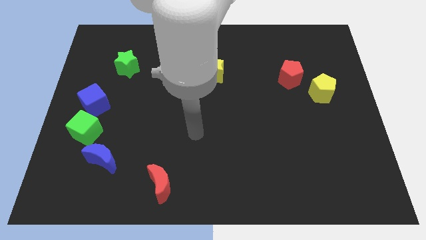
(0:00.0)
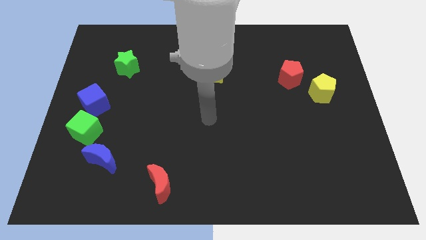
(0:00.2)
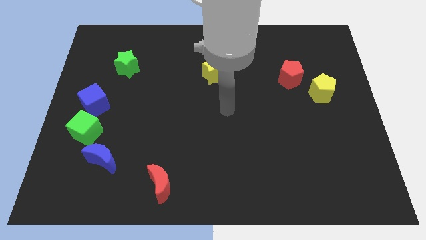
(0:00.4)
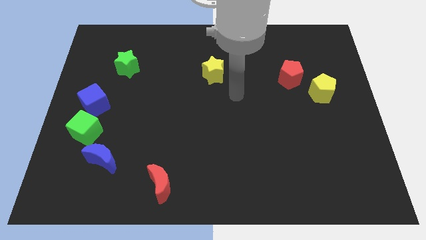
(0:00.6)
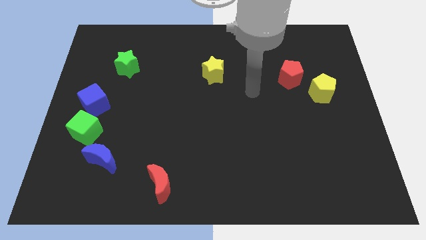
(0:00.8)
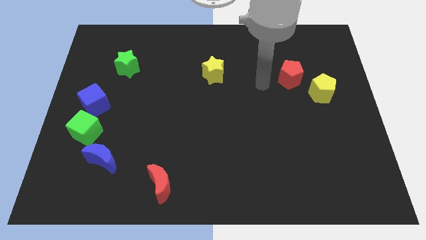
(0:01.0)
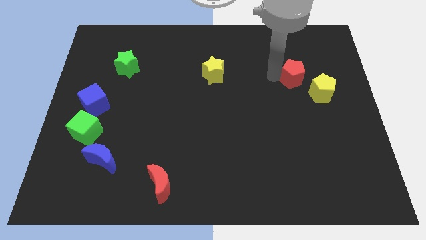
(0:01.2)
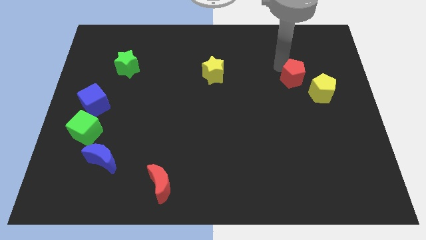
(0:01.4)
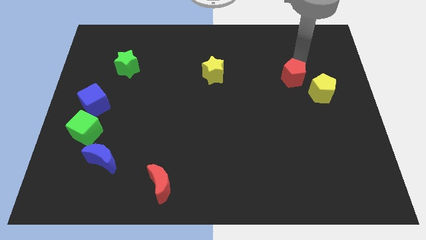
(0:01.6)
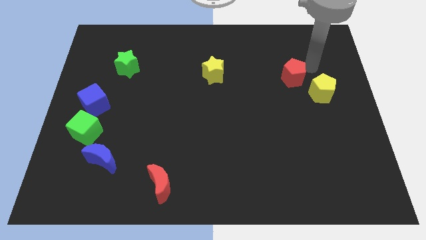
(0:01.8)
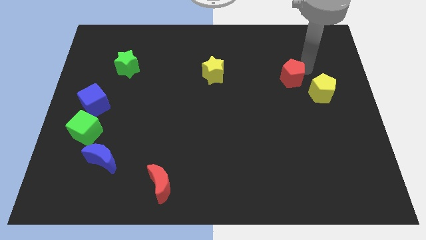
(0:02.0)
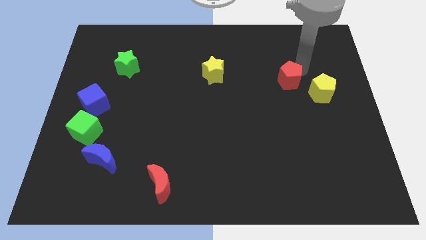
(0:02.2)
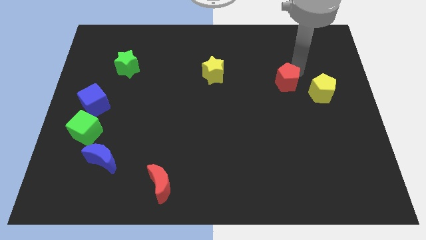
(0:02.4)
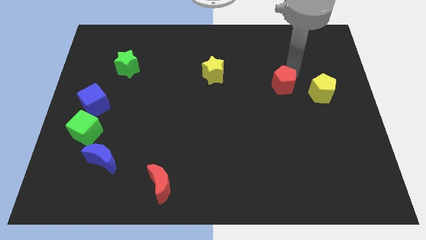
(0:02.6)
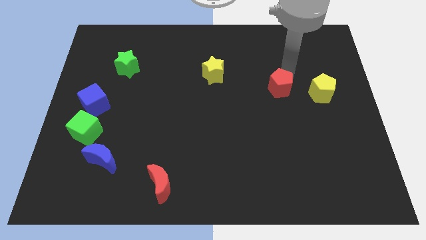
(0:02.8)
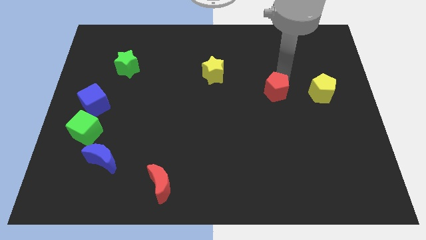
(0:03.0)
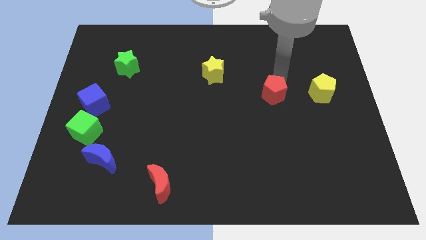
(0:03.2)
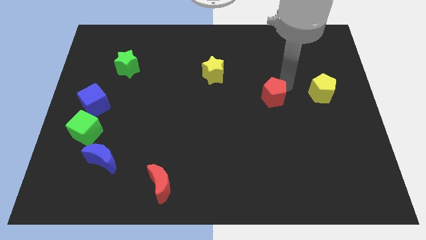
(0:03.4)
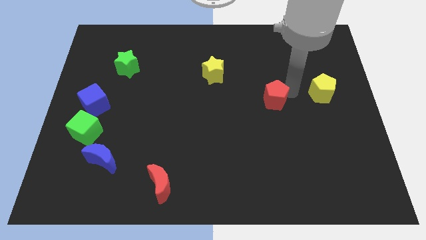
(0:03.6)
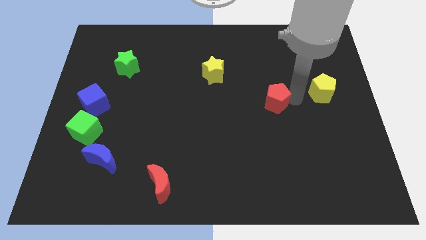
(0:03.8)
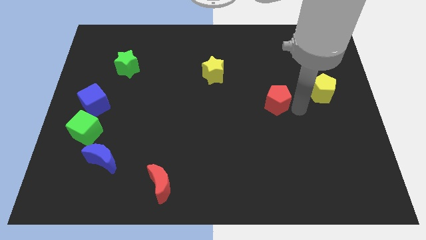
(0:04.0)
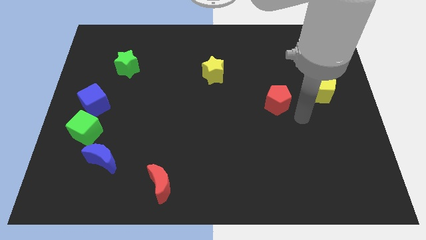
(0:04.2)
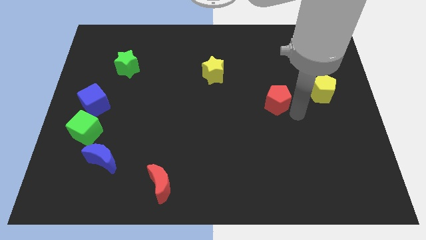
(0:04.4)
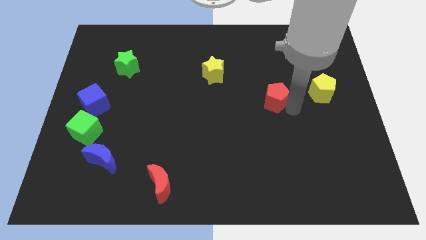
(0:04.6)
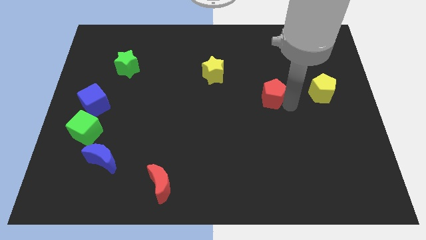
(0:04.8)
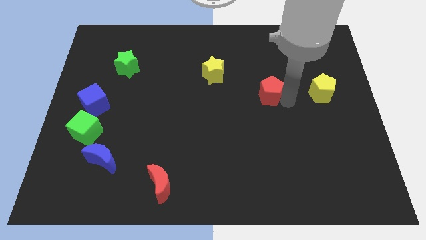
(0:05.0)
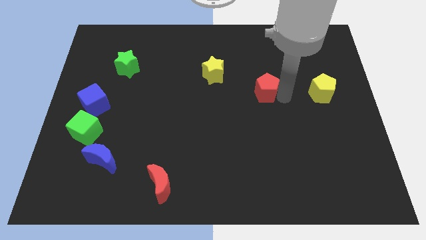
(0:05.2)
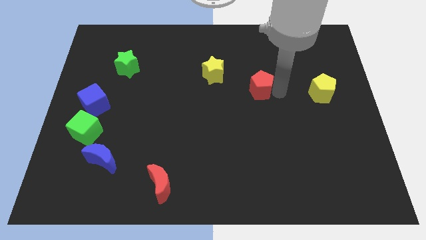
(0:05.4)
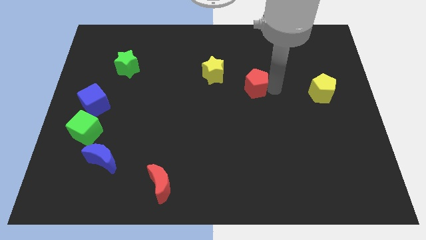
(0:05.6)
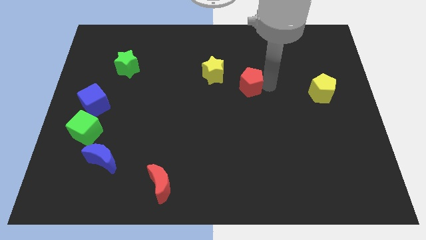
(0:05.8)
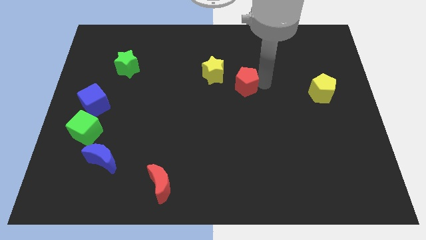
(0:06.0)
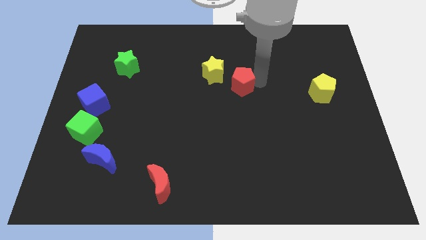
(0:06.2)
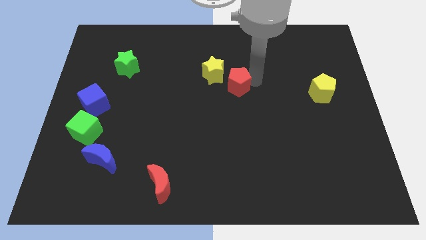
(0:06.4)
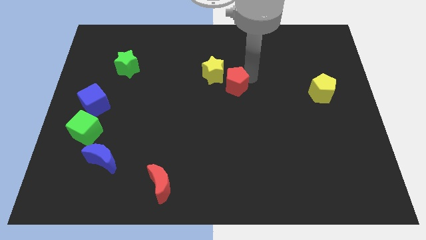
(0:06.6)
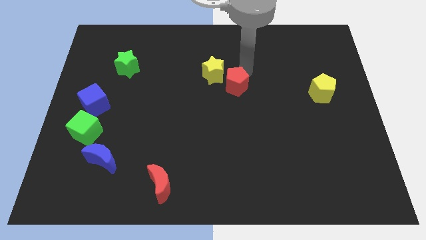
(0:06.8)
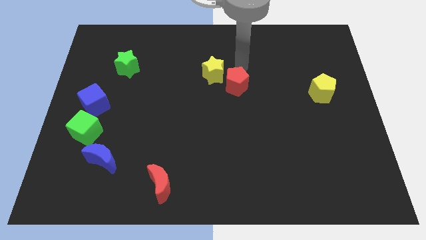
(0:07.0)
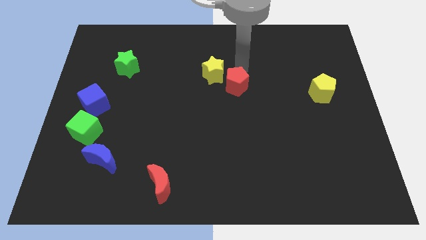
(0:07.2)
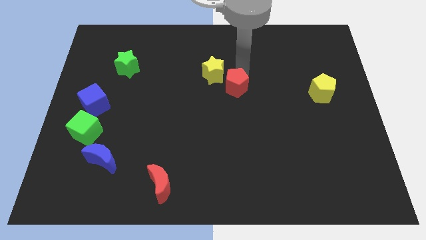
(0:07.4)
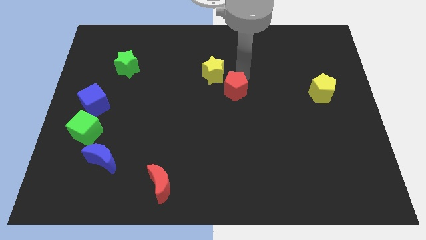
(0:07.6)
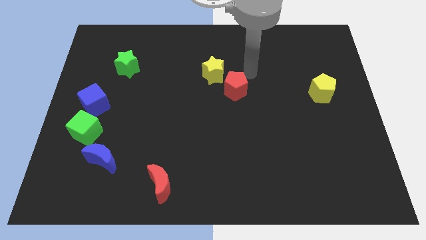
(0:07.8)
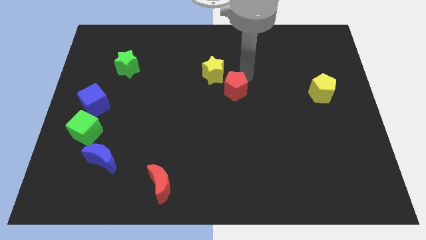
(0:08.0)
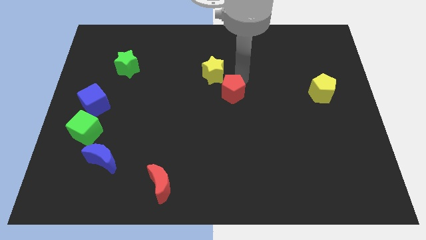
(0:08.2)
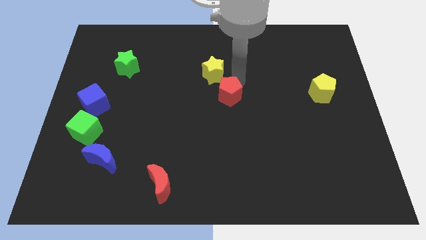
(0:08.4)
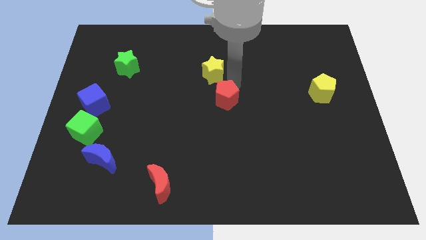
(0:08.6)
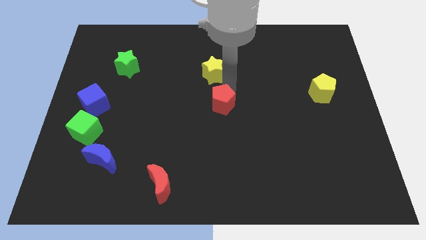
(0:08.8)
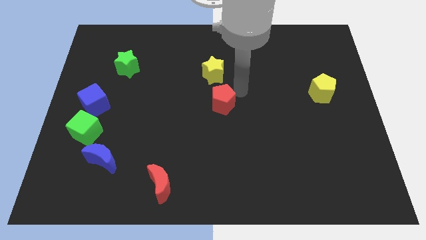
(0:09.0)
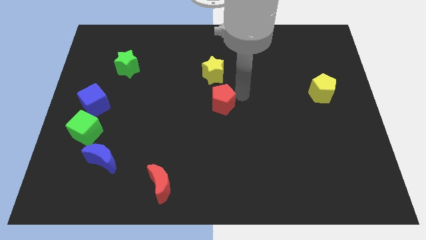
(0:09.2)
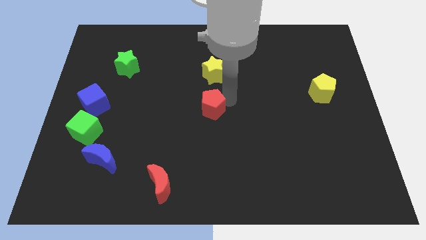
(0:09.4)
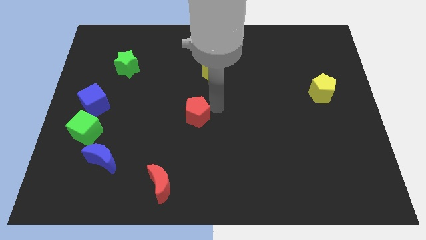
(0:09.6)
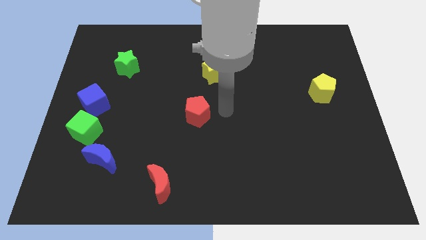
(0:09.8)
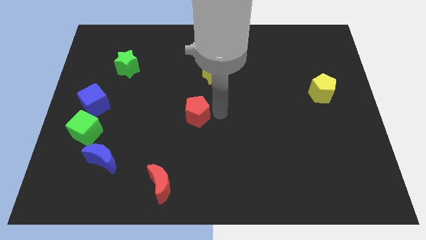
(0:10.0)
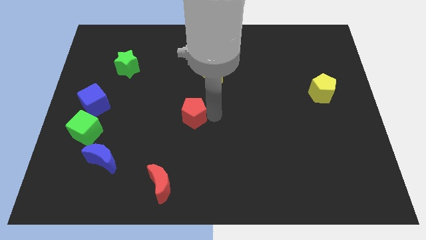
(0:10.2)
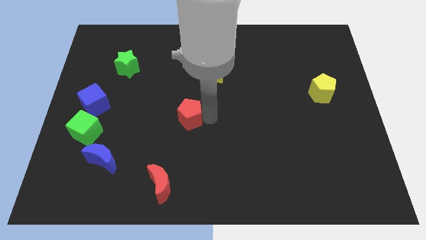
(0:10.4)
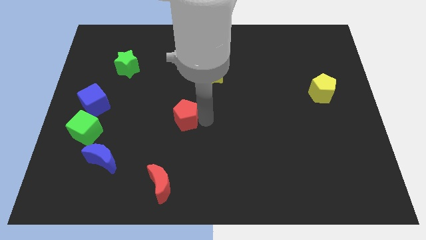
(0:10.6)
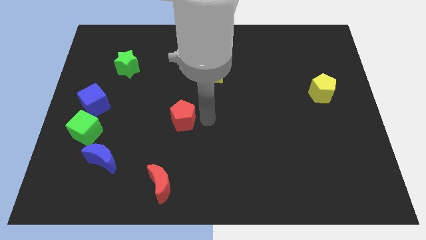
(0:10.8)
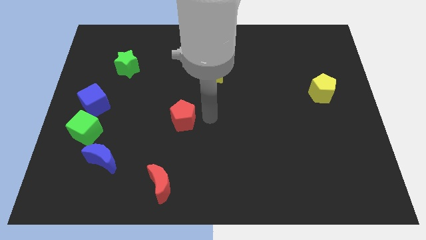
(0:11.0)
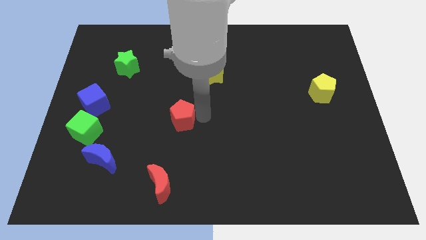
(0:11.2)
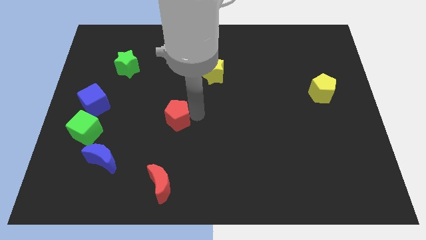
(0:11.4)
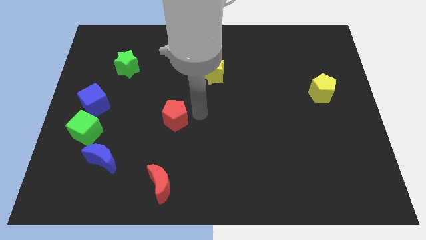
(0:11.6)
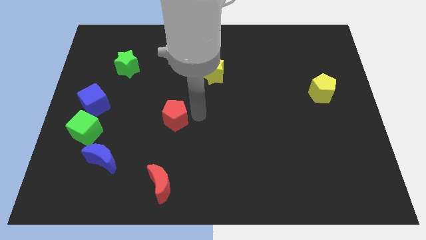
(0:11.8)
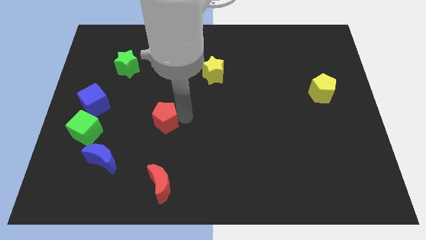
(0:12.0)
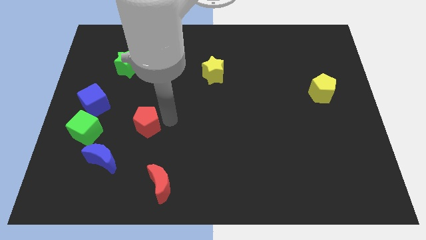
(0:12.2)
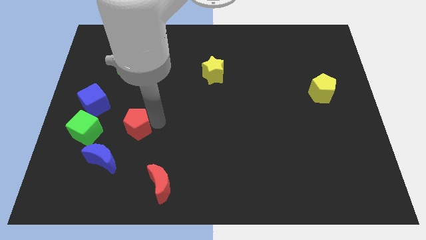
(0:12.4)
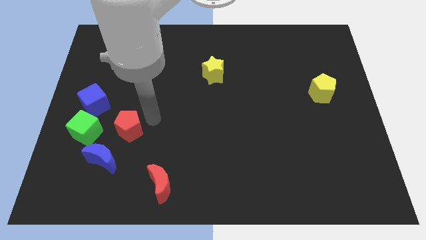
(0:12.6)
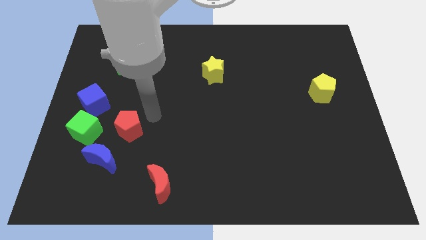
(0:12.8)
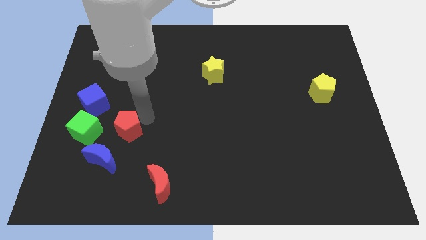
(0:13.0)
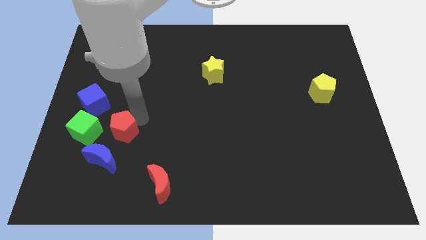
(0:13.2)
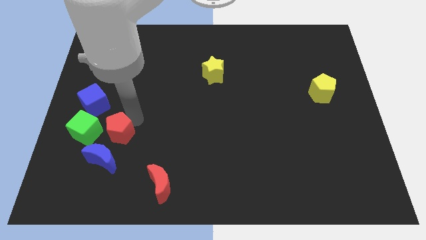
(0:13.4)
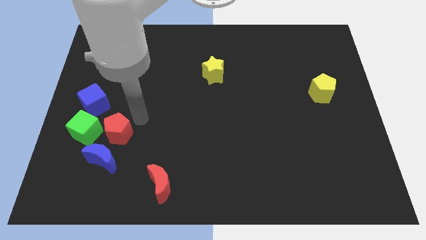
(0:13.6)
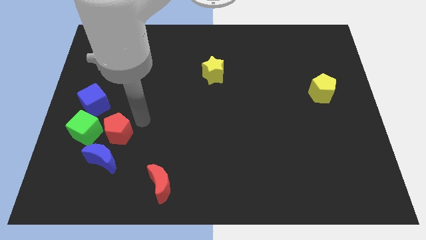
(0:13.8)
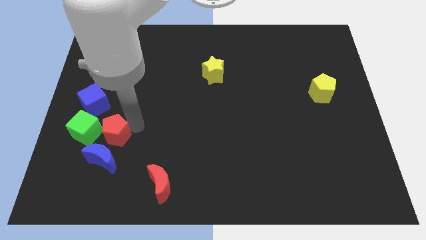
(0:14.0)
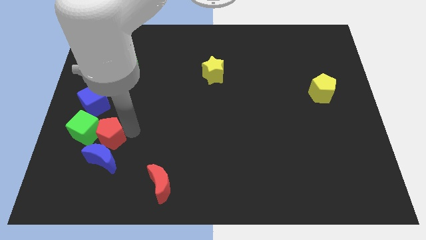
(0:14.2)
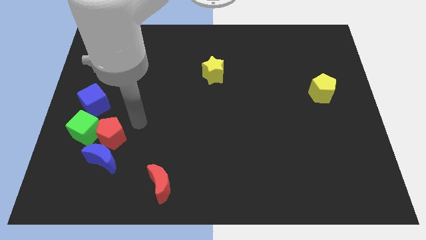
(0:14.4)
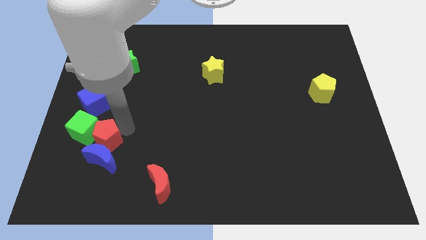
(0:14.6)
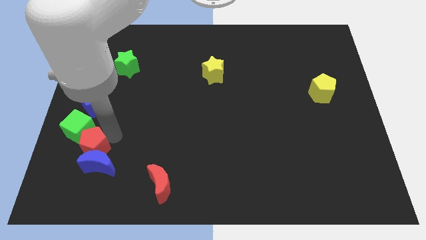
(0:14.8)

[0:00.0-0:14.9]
move the red pentagon below the green cube

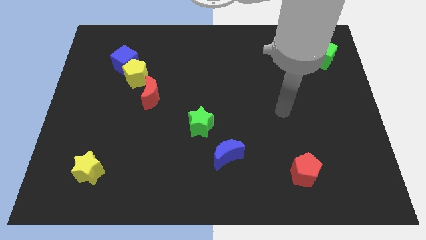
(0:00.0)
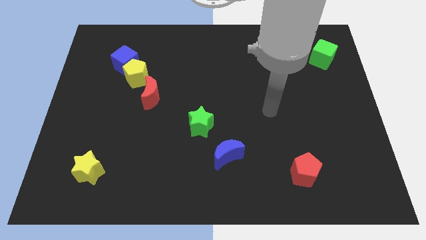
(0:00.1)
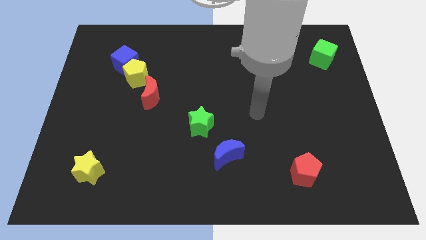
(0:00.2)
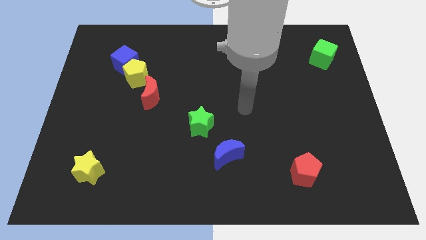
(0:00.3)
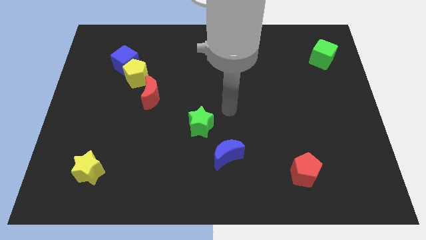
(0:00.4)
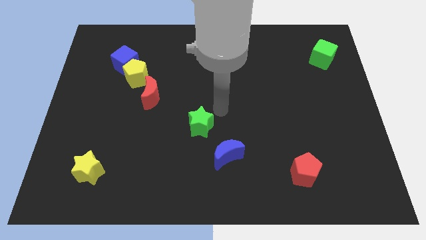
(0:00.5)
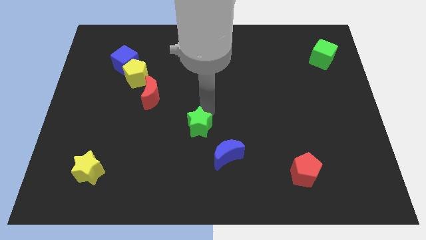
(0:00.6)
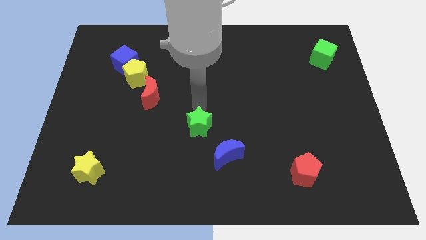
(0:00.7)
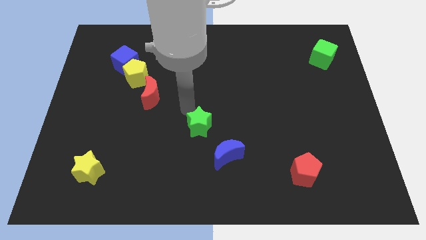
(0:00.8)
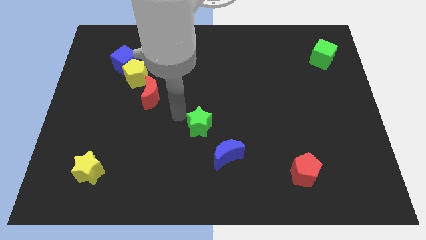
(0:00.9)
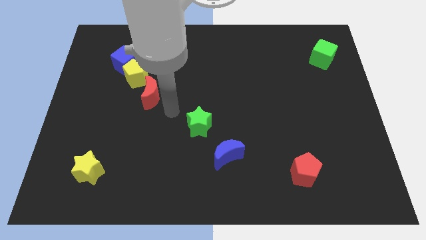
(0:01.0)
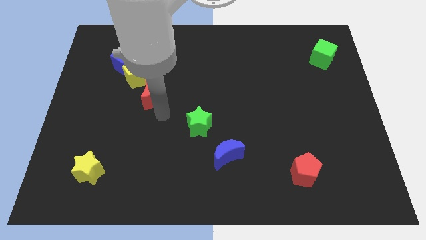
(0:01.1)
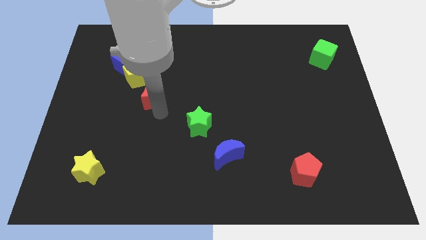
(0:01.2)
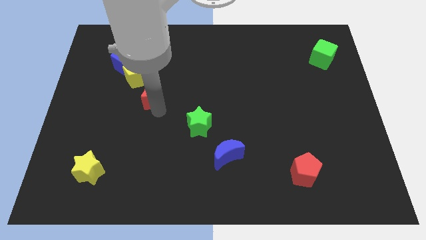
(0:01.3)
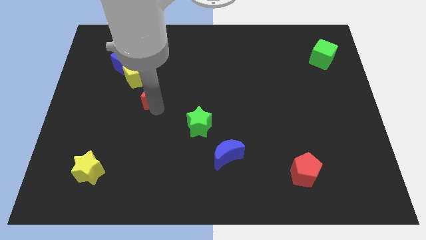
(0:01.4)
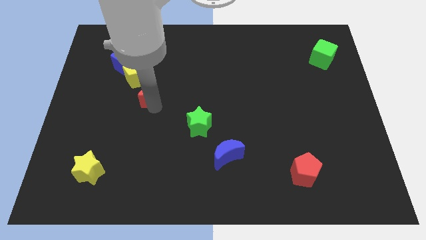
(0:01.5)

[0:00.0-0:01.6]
put the red moon to the bottom right side of the blue cube
